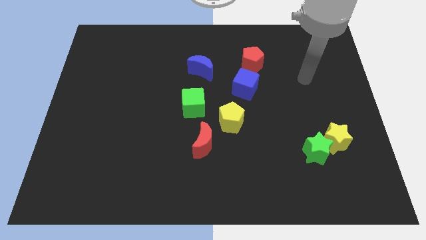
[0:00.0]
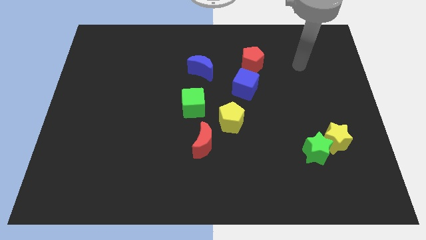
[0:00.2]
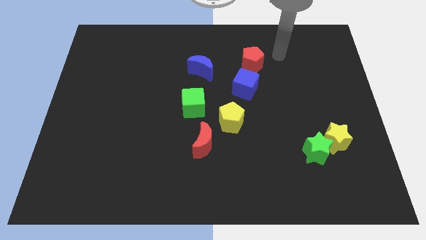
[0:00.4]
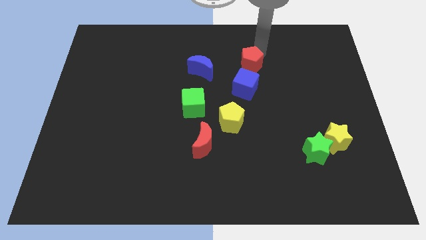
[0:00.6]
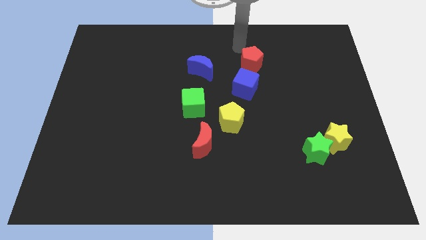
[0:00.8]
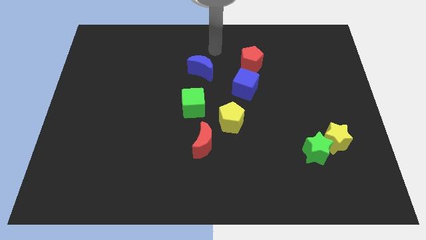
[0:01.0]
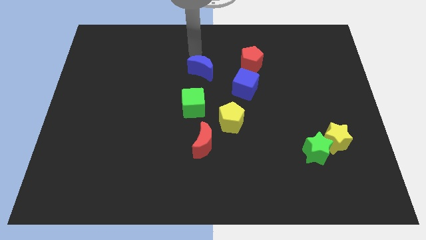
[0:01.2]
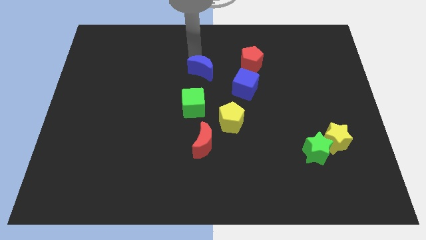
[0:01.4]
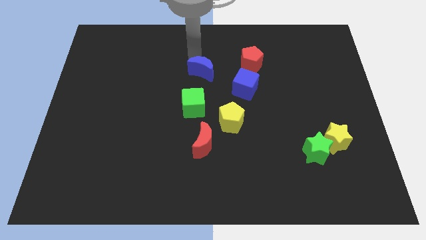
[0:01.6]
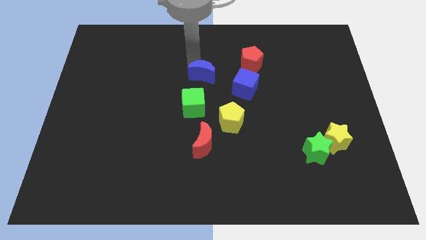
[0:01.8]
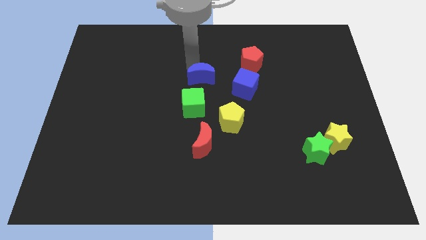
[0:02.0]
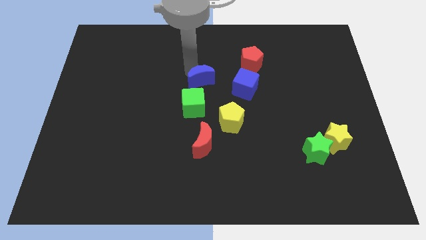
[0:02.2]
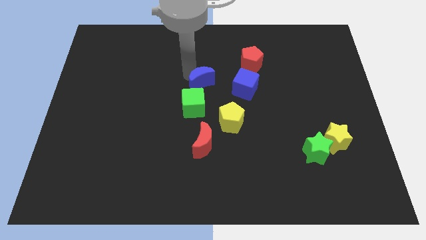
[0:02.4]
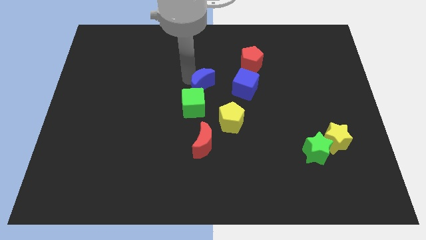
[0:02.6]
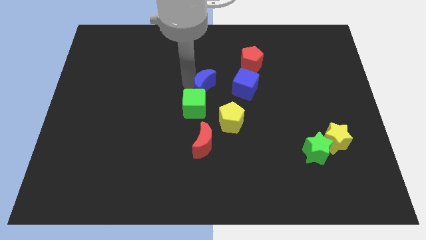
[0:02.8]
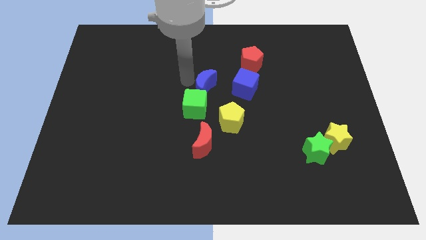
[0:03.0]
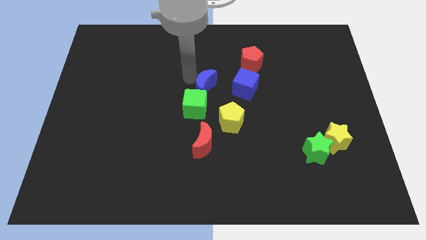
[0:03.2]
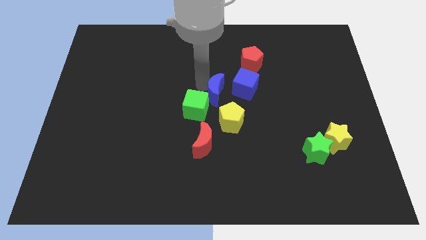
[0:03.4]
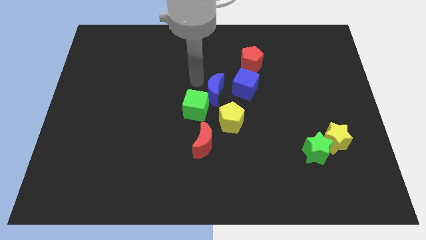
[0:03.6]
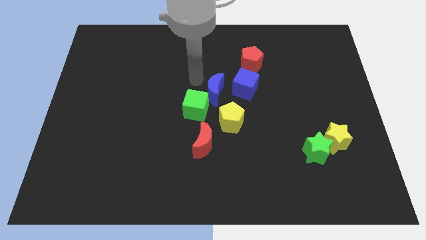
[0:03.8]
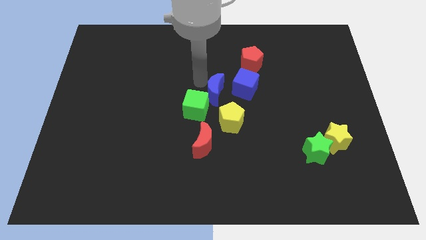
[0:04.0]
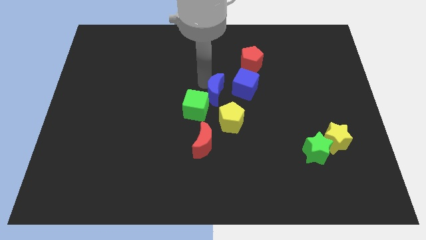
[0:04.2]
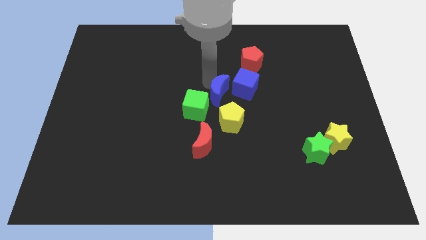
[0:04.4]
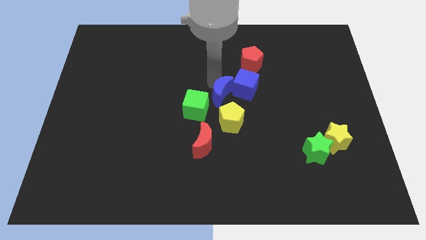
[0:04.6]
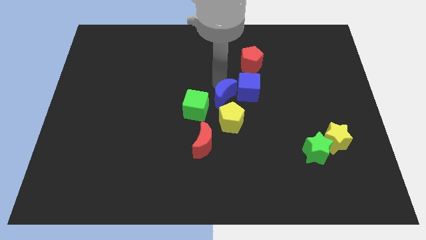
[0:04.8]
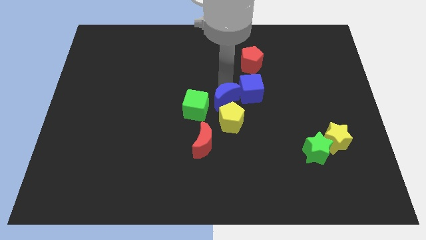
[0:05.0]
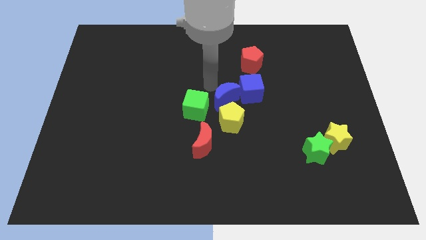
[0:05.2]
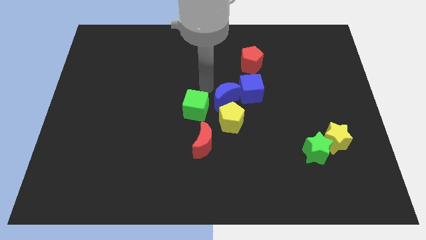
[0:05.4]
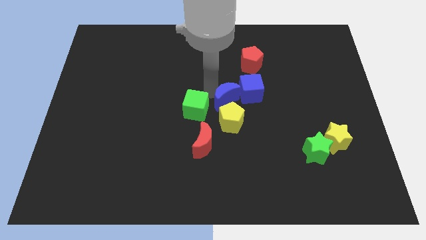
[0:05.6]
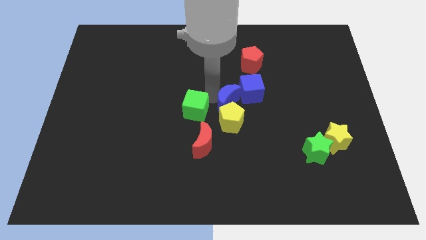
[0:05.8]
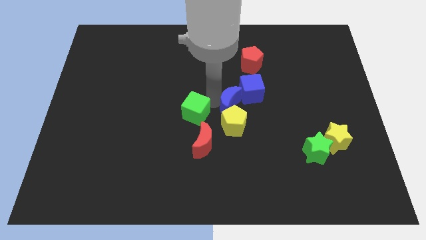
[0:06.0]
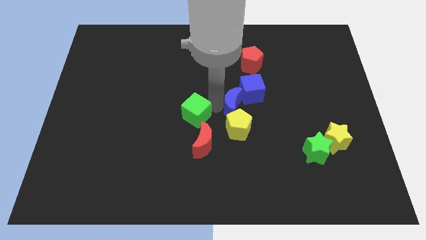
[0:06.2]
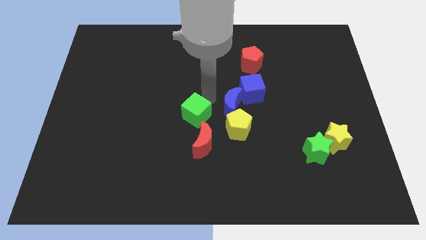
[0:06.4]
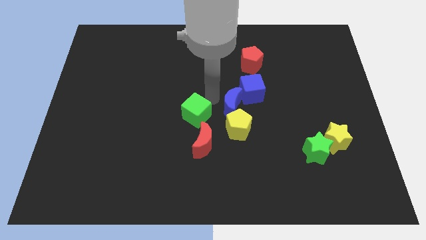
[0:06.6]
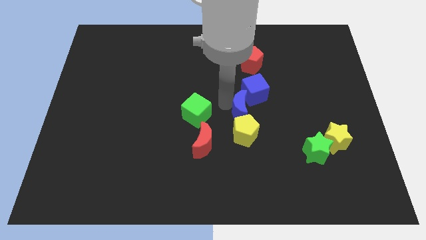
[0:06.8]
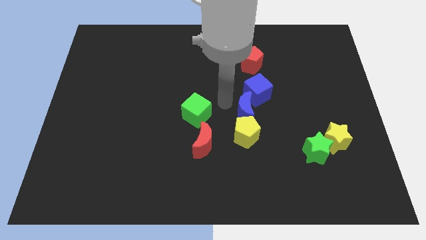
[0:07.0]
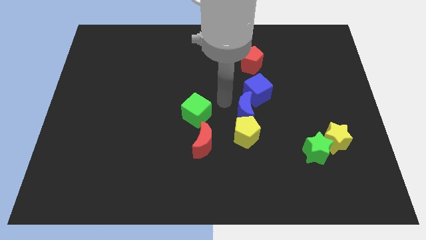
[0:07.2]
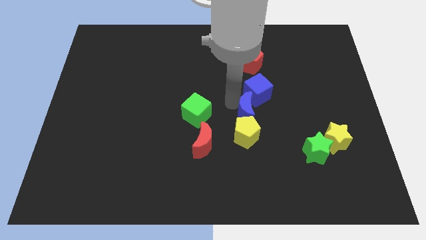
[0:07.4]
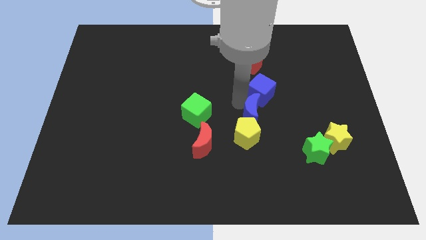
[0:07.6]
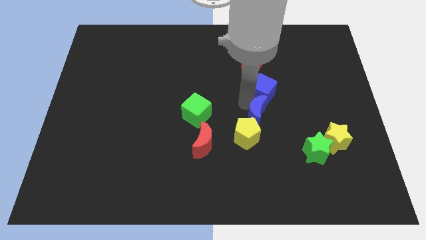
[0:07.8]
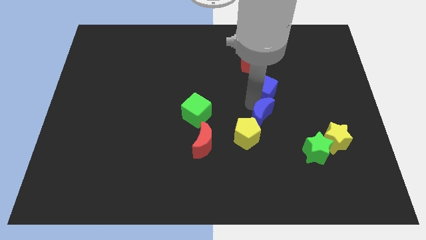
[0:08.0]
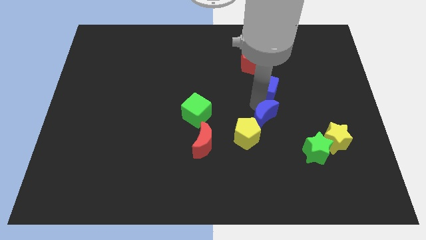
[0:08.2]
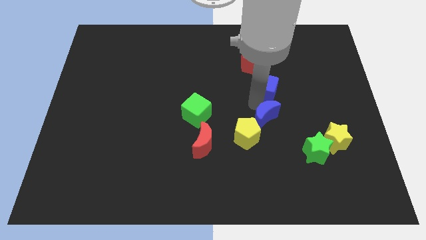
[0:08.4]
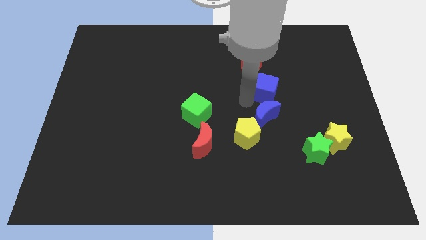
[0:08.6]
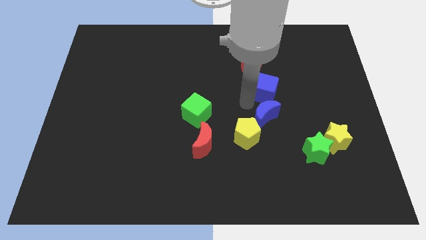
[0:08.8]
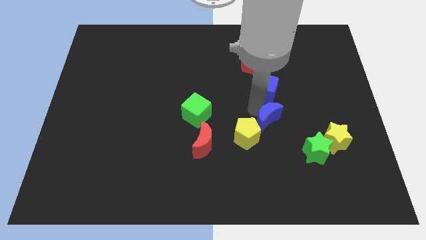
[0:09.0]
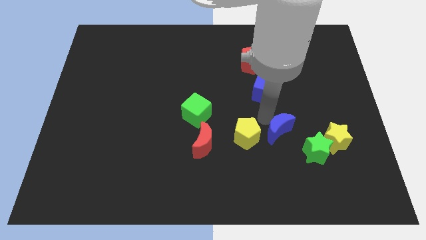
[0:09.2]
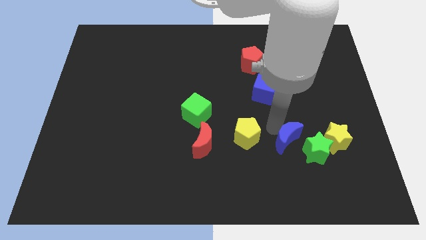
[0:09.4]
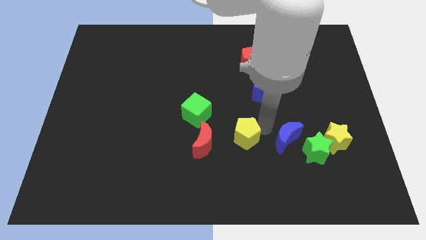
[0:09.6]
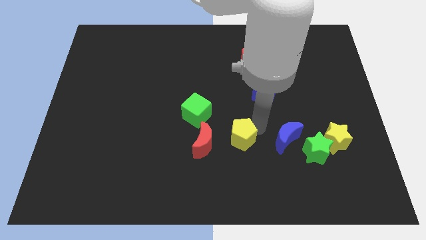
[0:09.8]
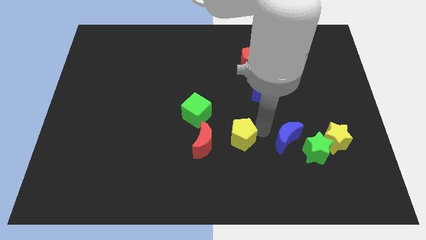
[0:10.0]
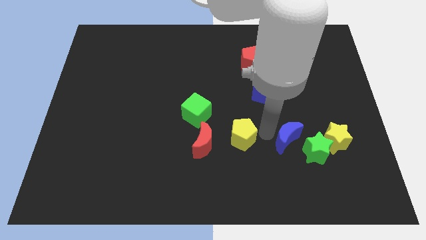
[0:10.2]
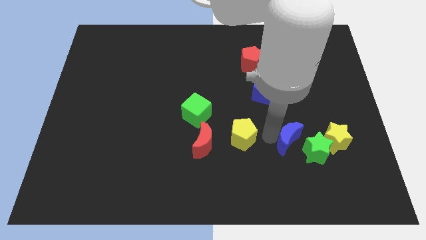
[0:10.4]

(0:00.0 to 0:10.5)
push the blue moon next to the green star

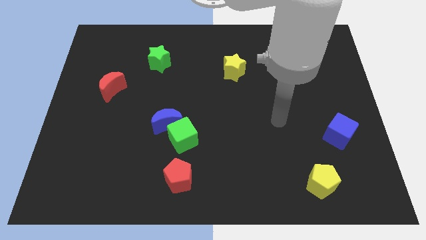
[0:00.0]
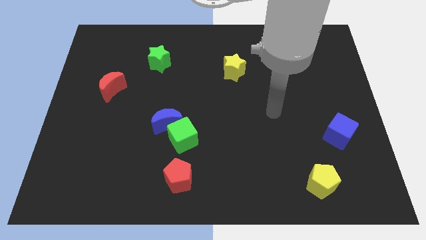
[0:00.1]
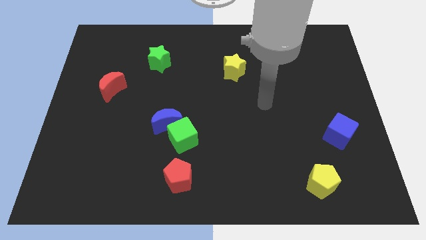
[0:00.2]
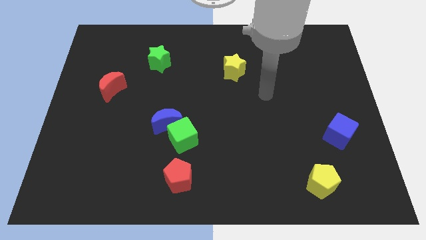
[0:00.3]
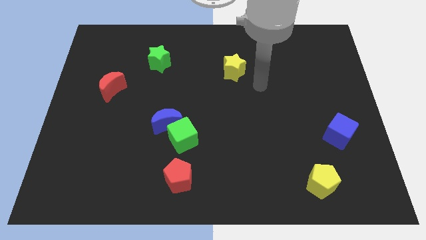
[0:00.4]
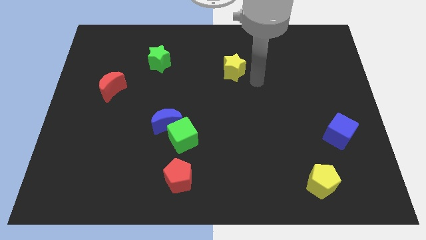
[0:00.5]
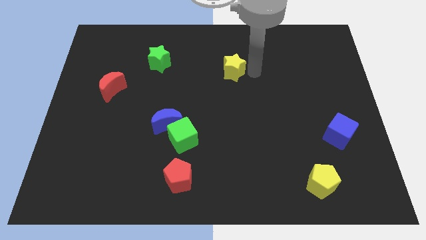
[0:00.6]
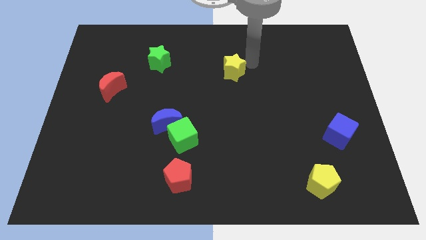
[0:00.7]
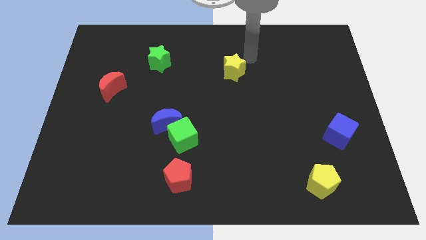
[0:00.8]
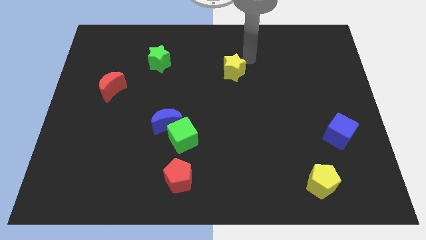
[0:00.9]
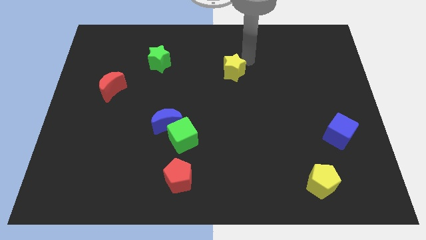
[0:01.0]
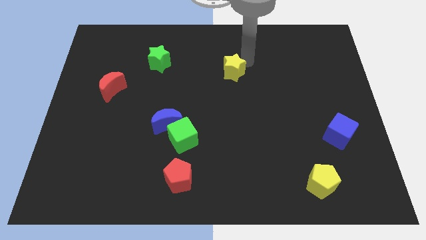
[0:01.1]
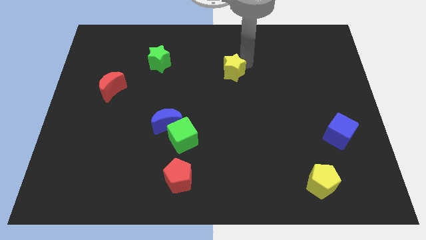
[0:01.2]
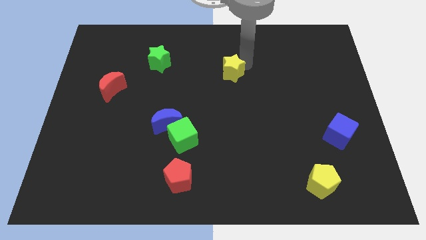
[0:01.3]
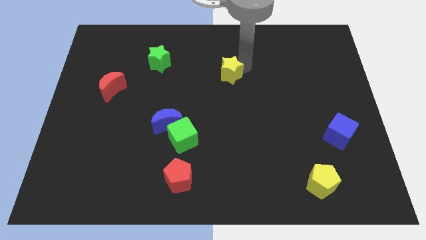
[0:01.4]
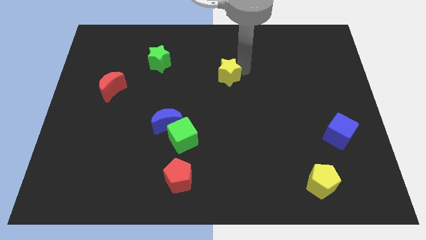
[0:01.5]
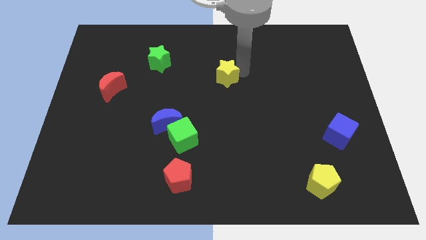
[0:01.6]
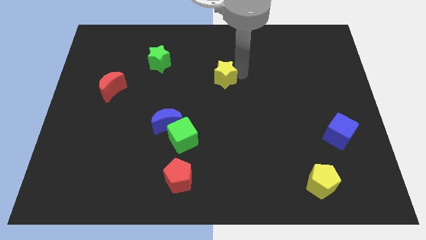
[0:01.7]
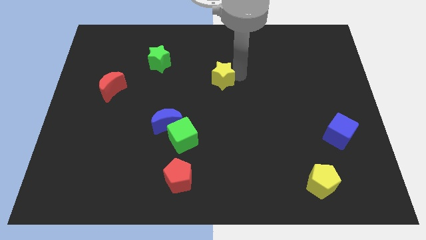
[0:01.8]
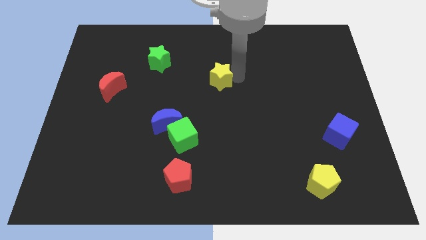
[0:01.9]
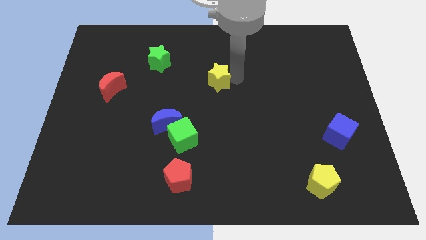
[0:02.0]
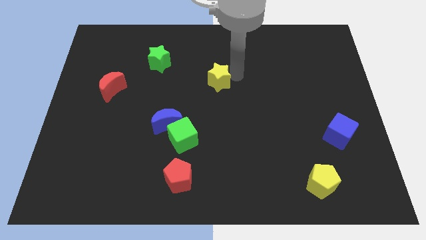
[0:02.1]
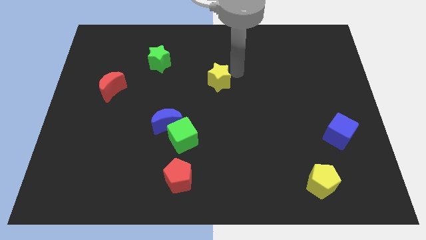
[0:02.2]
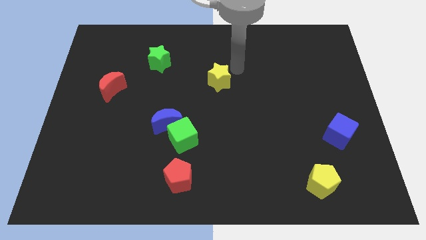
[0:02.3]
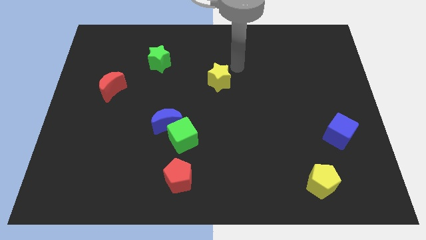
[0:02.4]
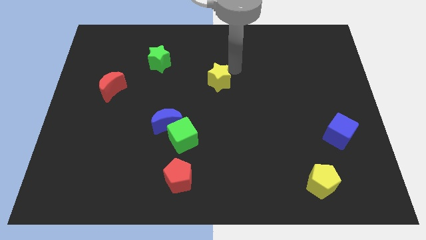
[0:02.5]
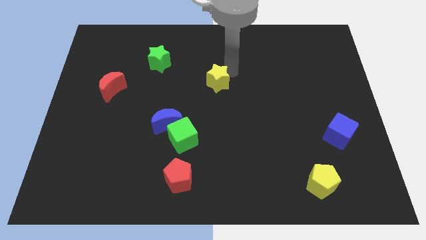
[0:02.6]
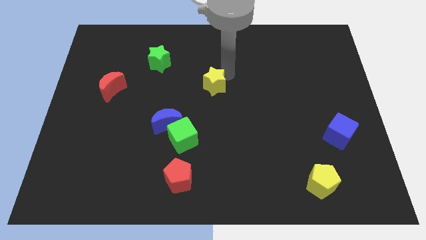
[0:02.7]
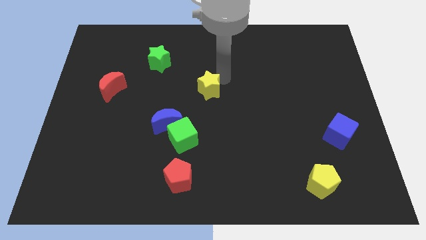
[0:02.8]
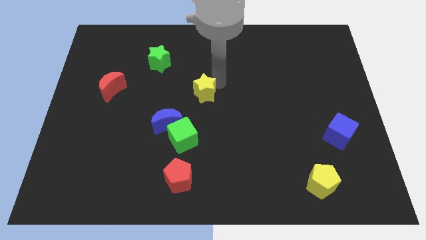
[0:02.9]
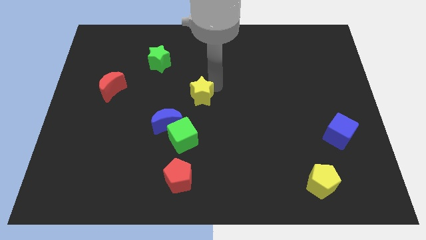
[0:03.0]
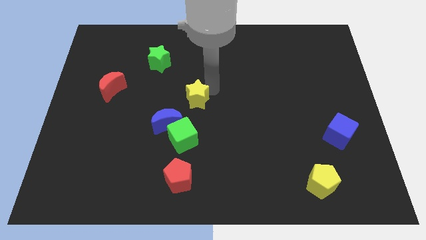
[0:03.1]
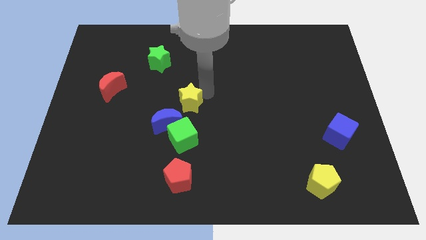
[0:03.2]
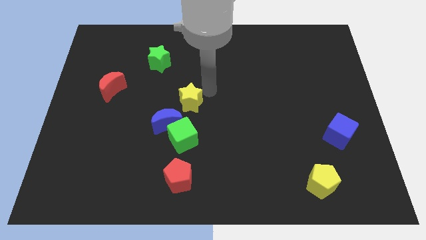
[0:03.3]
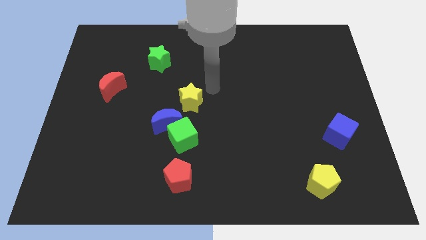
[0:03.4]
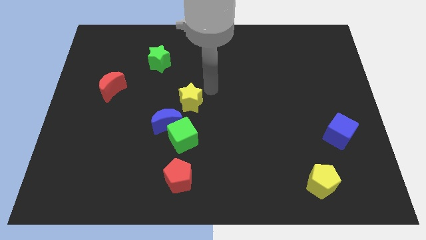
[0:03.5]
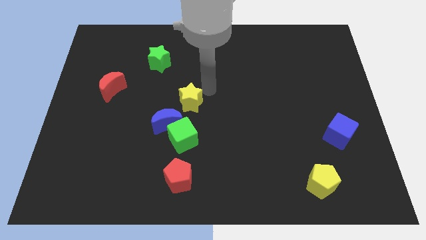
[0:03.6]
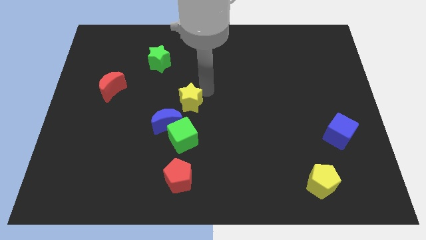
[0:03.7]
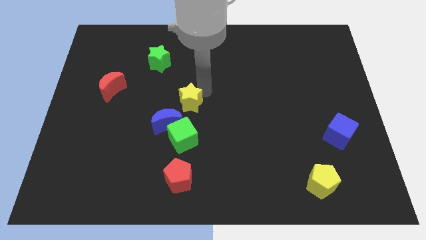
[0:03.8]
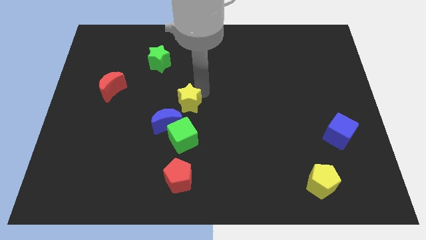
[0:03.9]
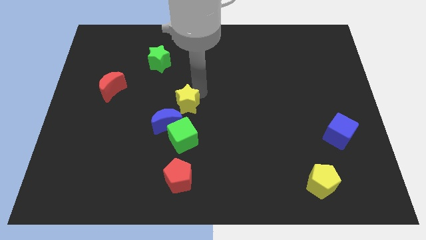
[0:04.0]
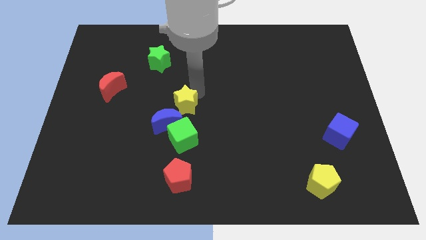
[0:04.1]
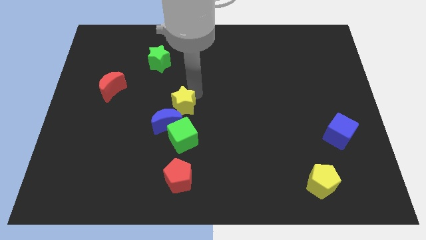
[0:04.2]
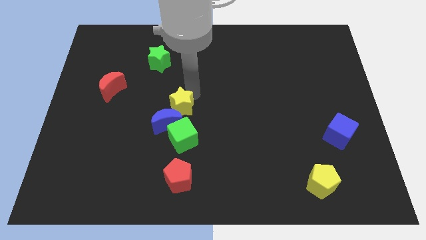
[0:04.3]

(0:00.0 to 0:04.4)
move the yellow star towards the blue moon
